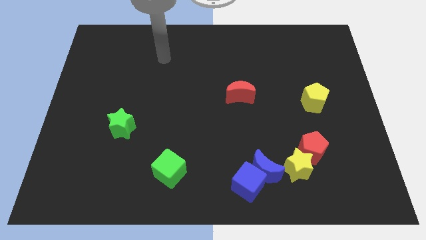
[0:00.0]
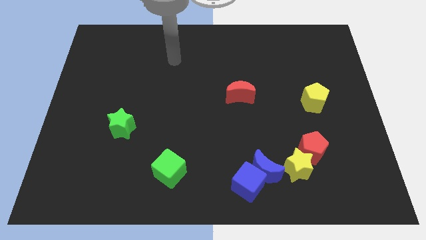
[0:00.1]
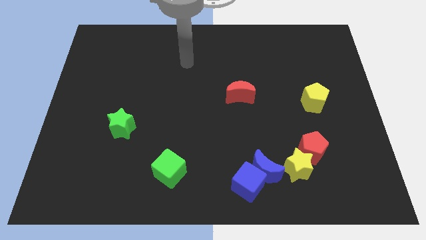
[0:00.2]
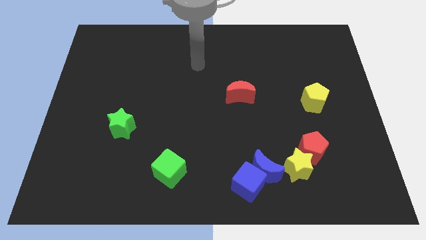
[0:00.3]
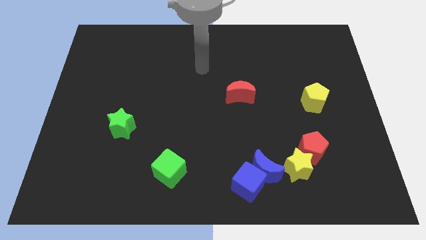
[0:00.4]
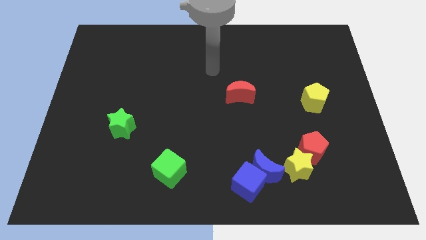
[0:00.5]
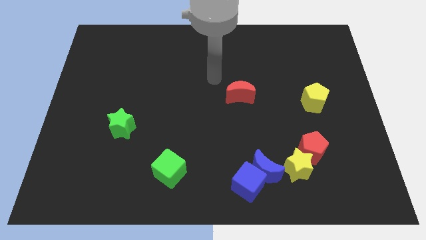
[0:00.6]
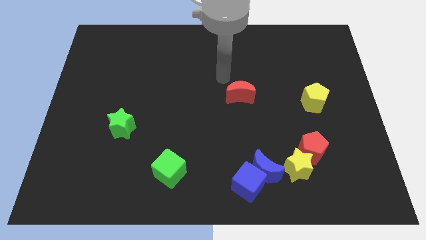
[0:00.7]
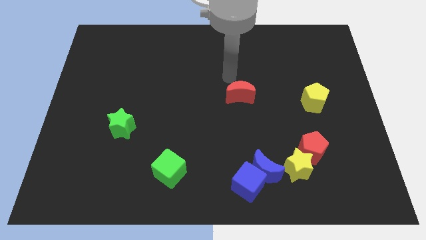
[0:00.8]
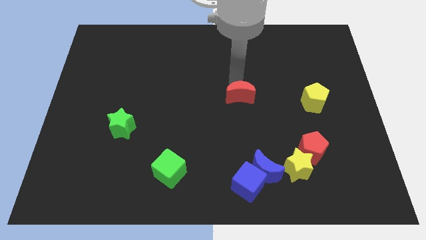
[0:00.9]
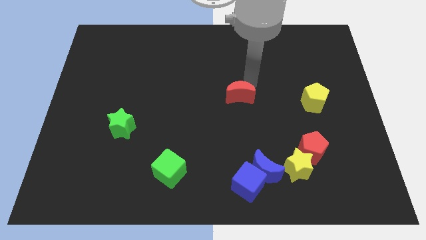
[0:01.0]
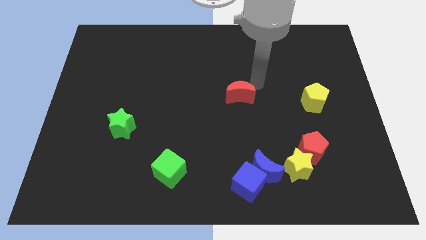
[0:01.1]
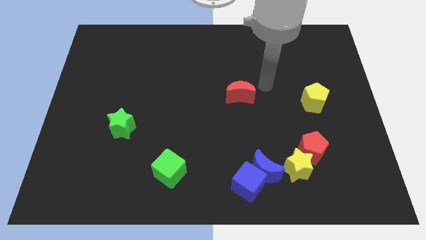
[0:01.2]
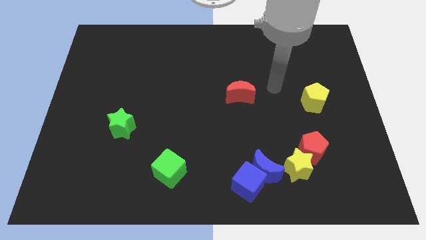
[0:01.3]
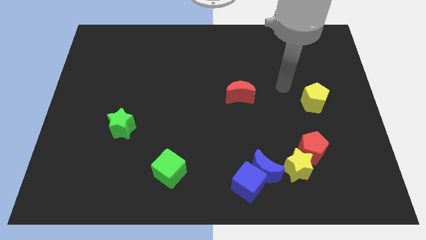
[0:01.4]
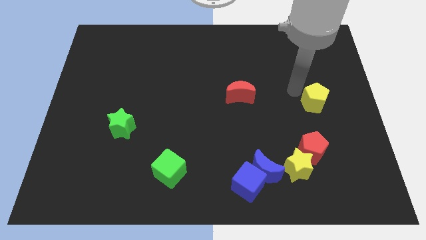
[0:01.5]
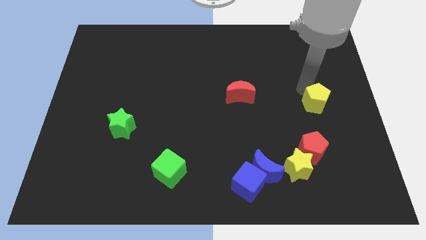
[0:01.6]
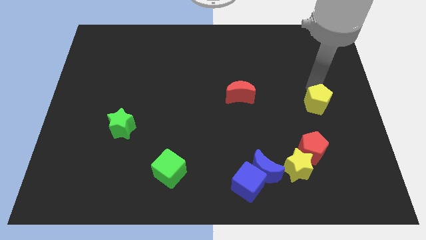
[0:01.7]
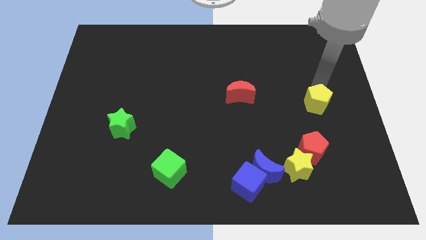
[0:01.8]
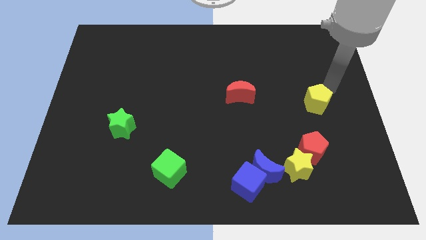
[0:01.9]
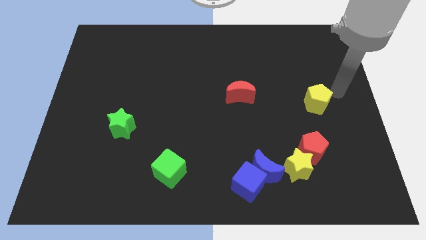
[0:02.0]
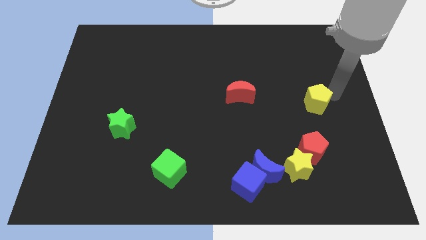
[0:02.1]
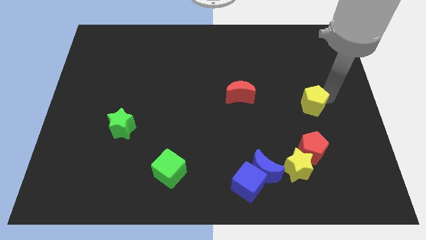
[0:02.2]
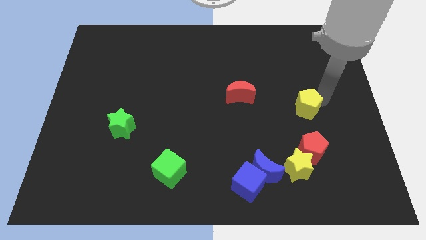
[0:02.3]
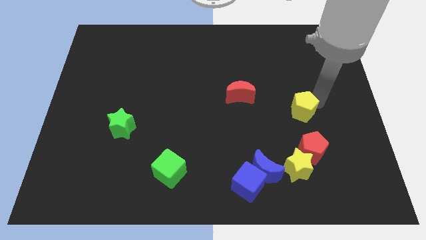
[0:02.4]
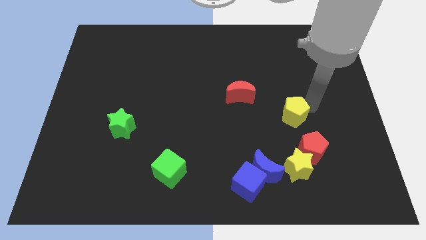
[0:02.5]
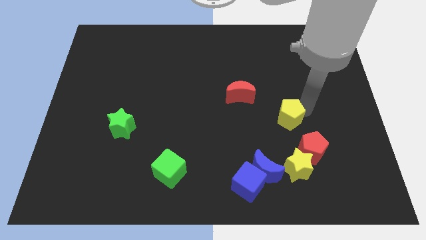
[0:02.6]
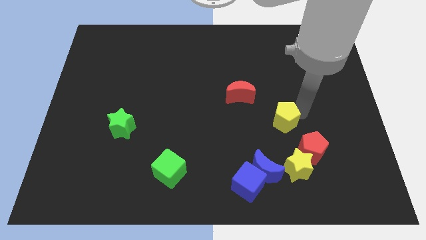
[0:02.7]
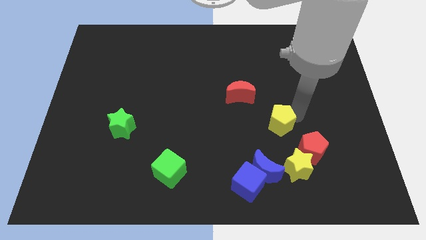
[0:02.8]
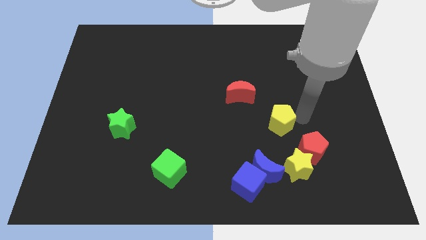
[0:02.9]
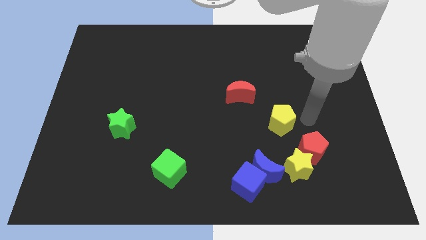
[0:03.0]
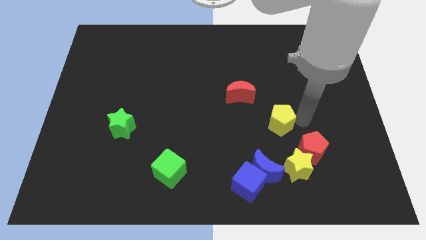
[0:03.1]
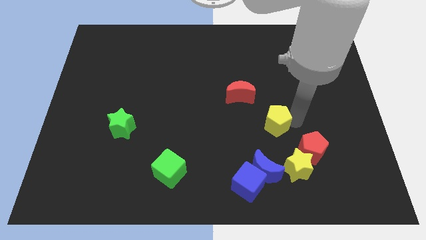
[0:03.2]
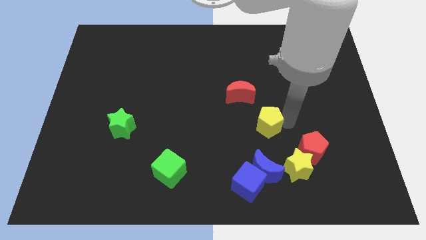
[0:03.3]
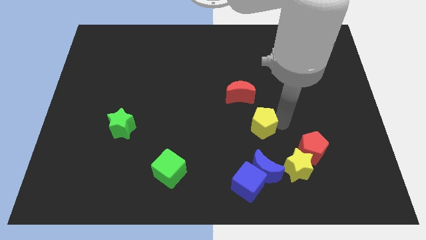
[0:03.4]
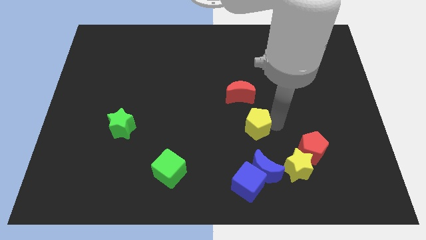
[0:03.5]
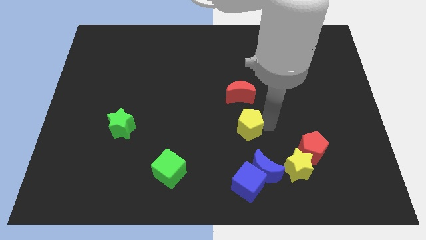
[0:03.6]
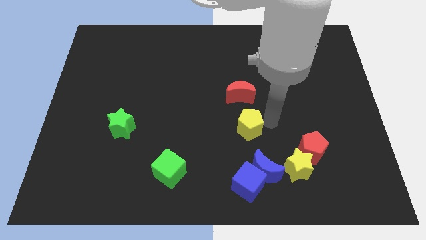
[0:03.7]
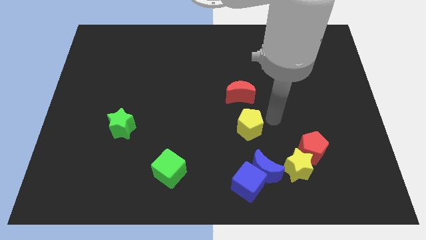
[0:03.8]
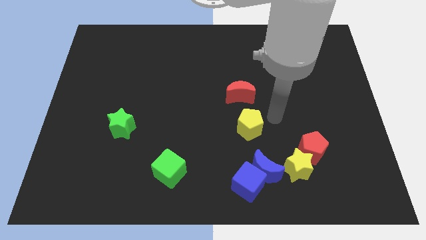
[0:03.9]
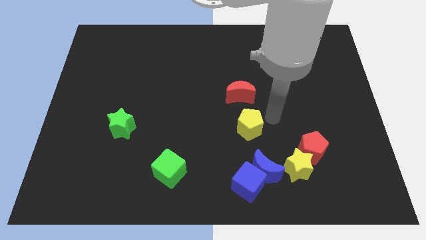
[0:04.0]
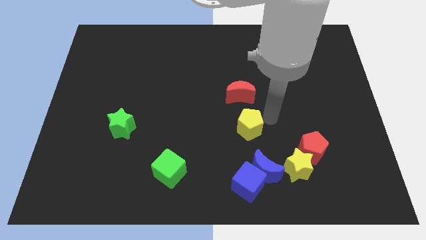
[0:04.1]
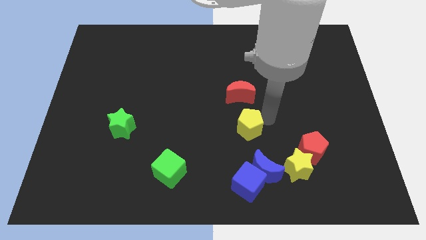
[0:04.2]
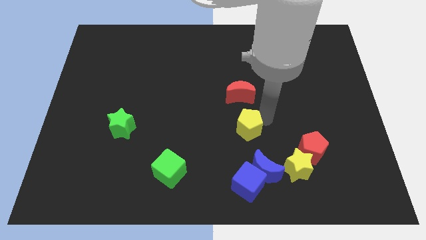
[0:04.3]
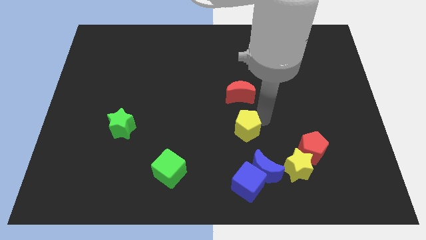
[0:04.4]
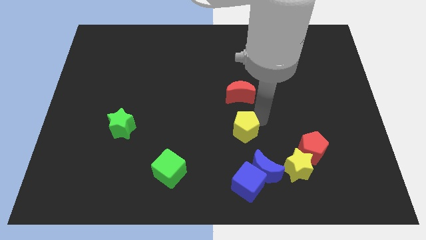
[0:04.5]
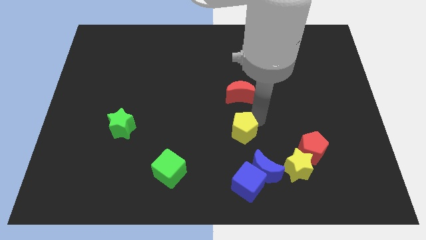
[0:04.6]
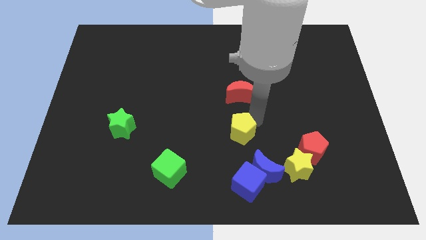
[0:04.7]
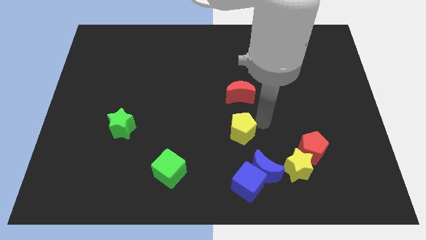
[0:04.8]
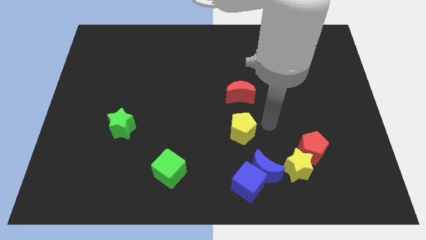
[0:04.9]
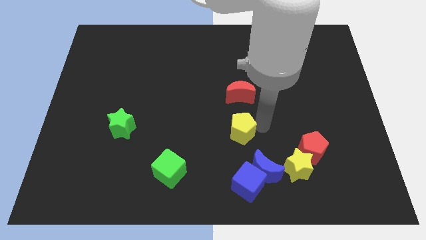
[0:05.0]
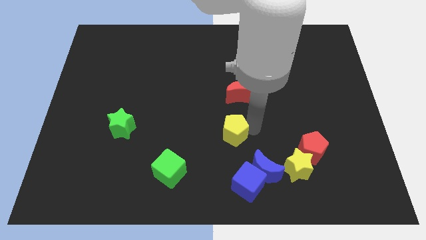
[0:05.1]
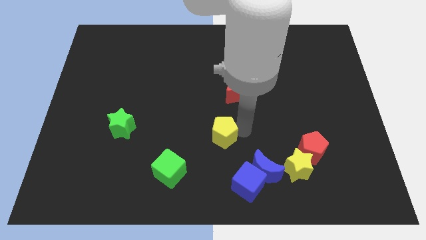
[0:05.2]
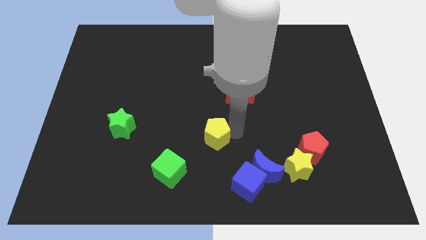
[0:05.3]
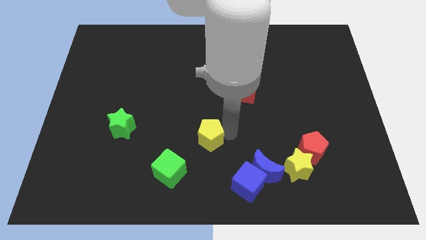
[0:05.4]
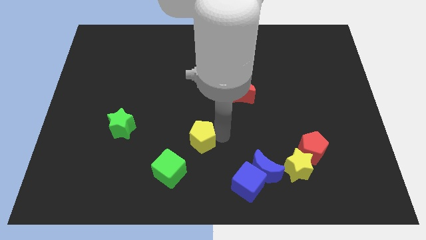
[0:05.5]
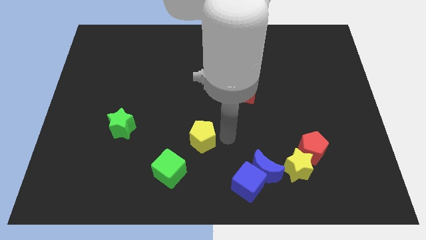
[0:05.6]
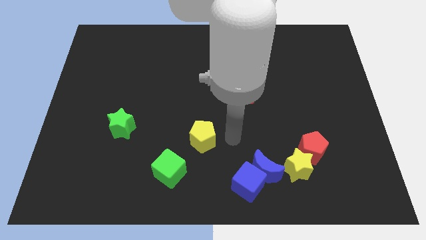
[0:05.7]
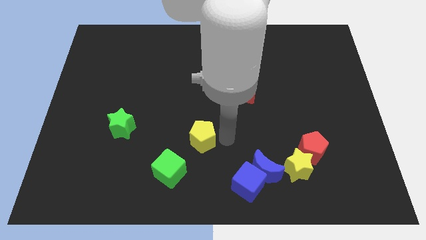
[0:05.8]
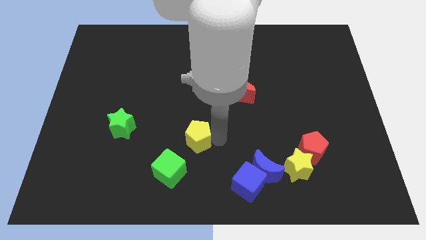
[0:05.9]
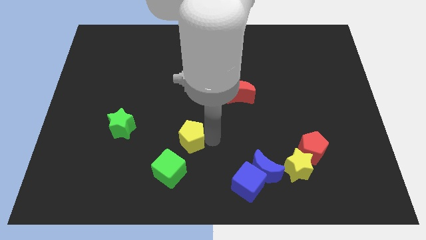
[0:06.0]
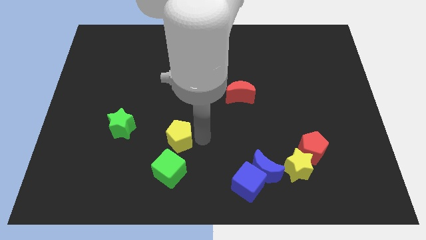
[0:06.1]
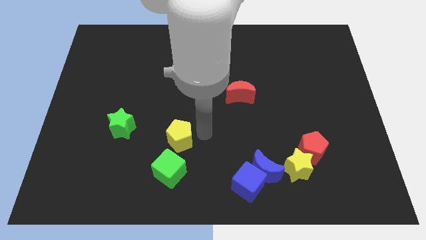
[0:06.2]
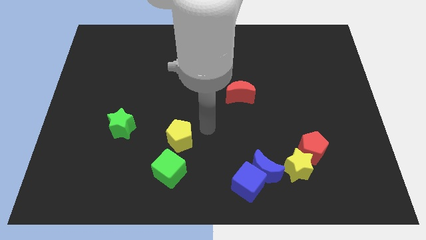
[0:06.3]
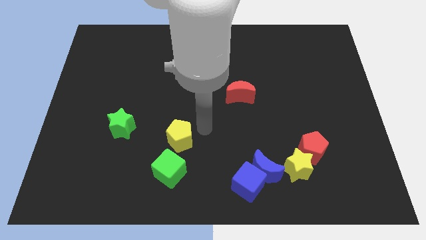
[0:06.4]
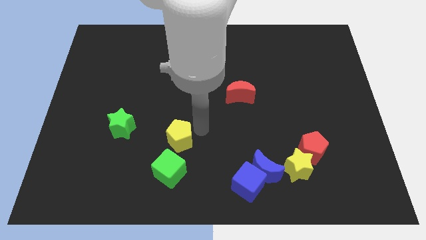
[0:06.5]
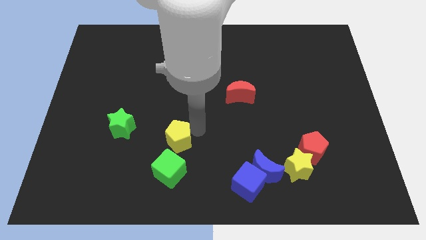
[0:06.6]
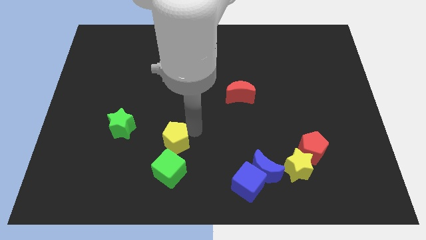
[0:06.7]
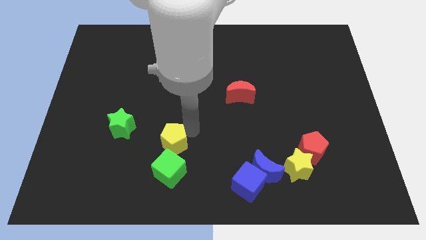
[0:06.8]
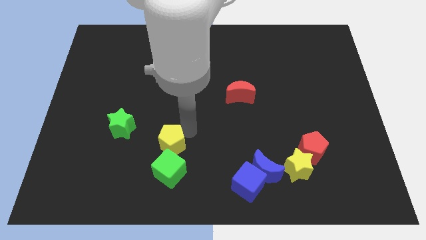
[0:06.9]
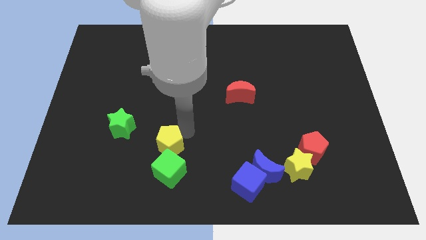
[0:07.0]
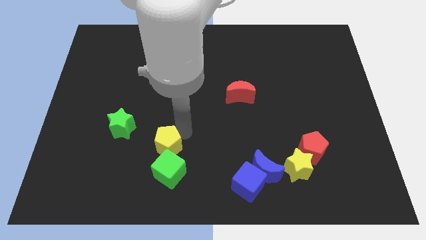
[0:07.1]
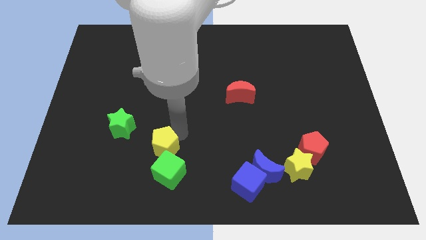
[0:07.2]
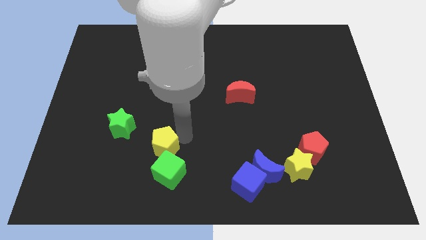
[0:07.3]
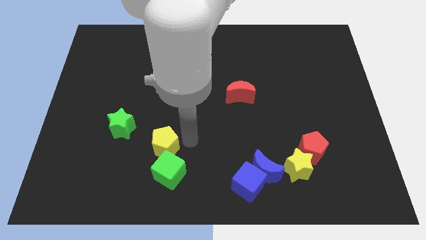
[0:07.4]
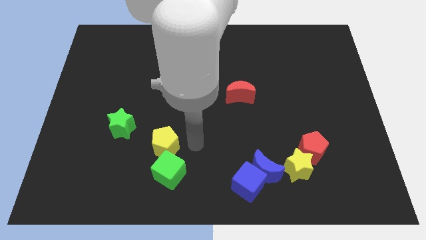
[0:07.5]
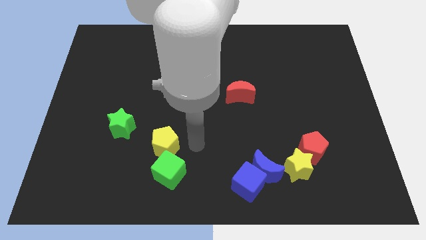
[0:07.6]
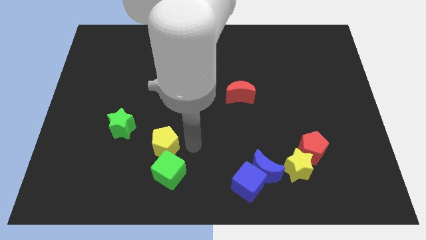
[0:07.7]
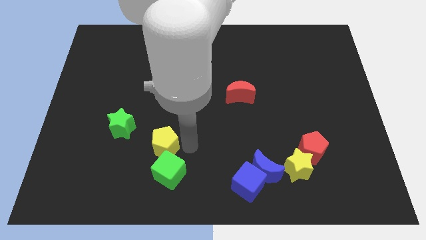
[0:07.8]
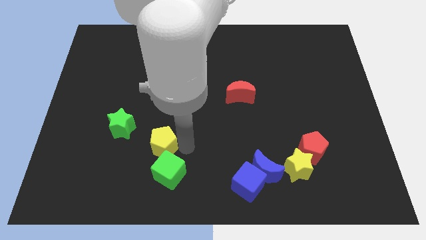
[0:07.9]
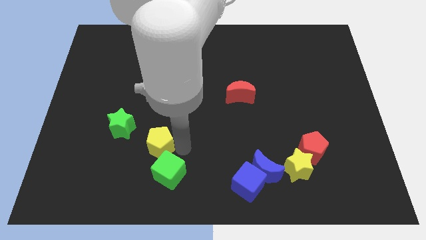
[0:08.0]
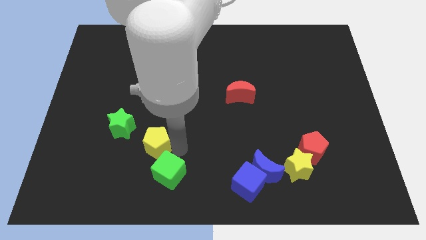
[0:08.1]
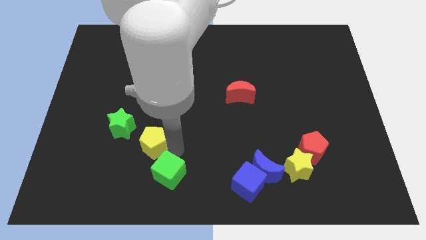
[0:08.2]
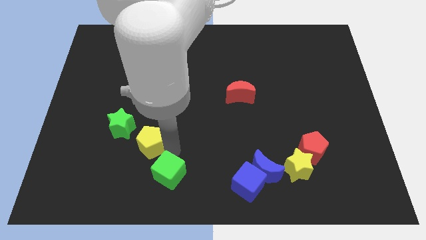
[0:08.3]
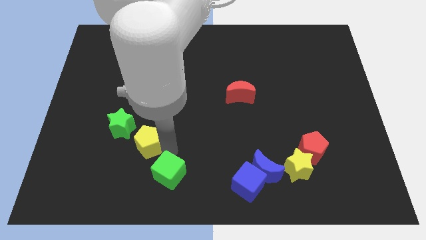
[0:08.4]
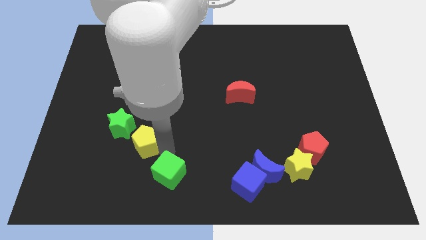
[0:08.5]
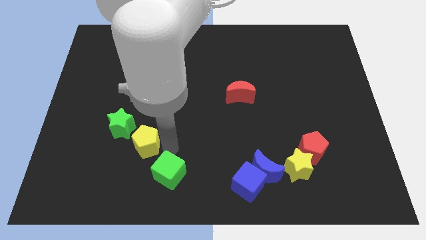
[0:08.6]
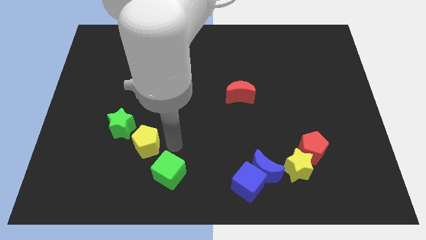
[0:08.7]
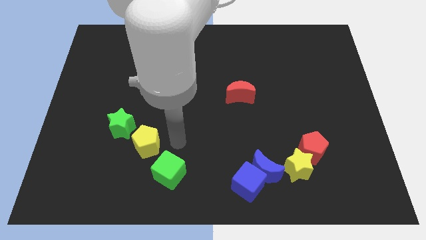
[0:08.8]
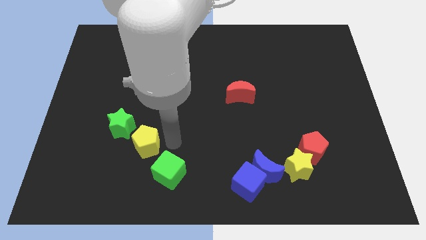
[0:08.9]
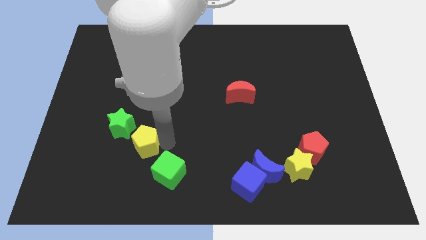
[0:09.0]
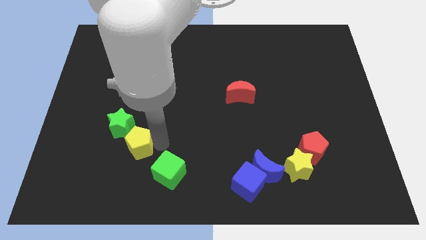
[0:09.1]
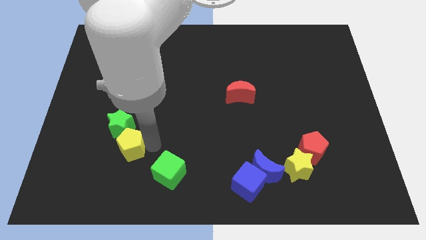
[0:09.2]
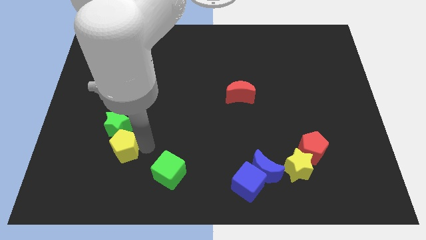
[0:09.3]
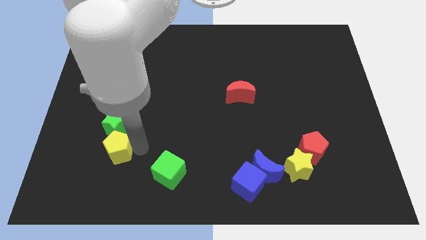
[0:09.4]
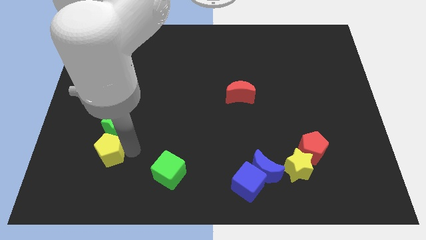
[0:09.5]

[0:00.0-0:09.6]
push the yellow pentagon to the bottom left of the green star
